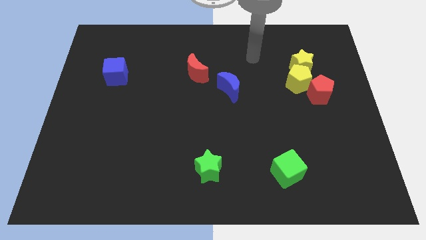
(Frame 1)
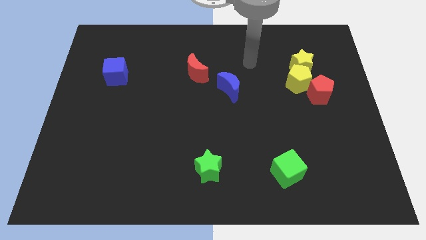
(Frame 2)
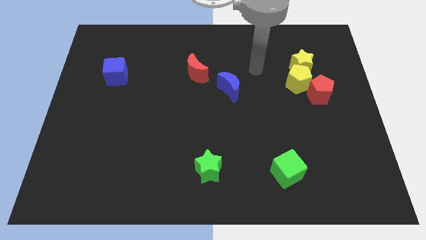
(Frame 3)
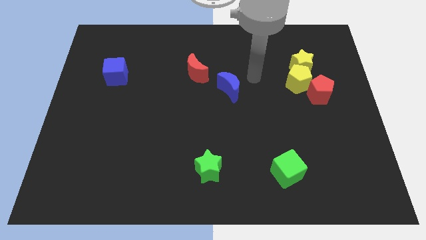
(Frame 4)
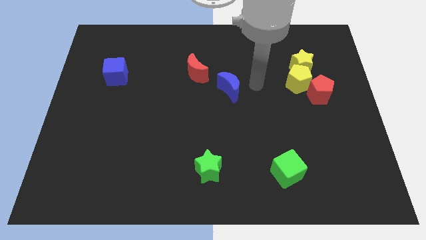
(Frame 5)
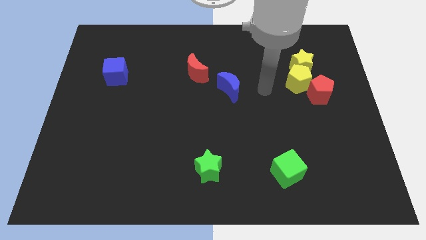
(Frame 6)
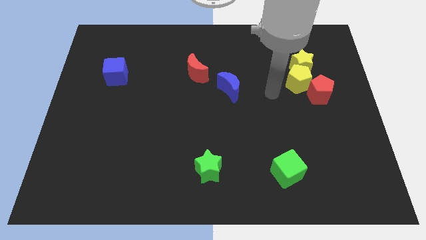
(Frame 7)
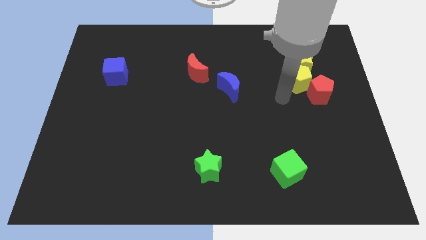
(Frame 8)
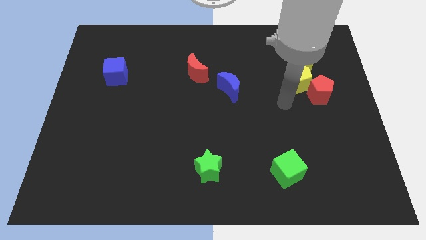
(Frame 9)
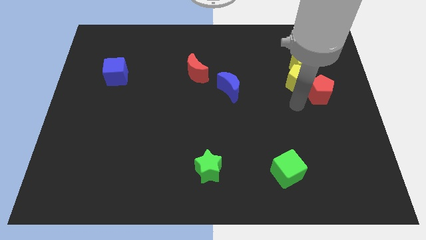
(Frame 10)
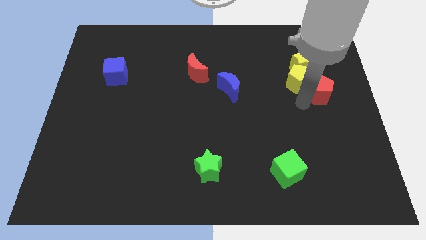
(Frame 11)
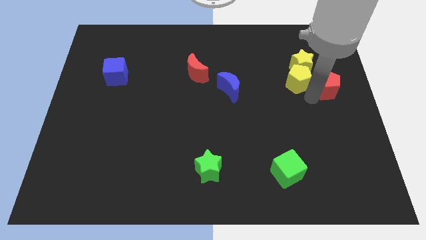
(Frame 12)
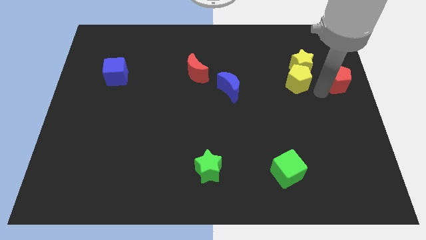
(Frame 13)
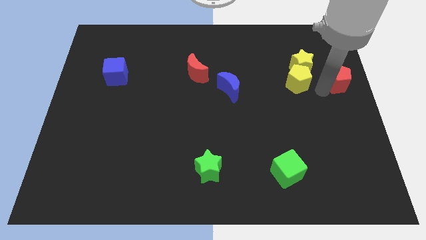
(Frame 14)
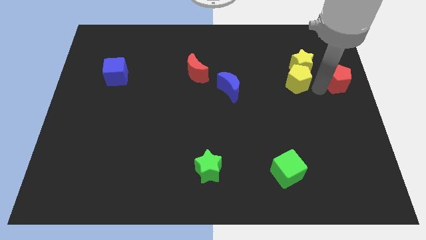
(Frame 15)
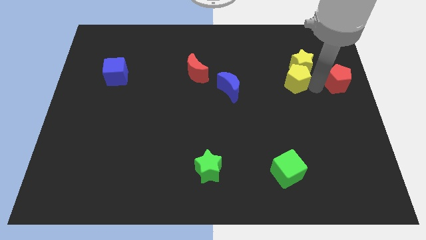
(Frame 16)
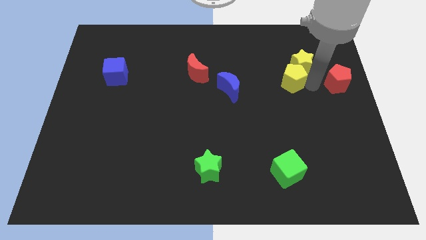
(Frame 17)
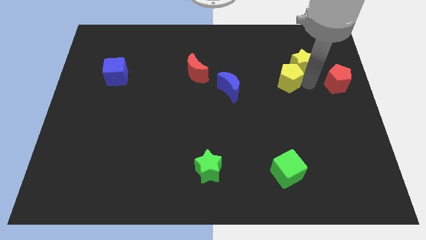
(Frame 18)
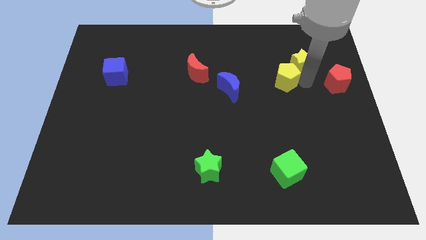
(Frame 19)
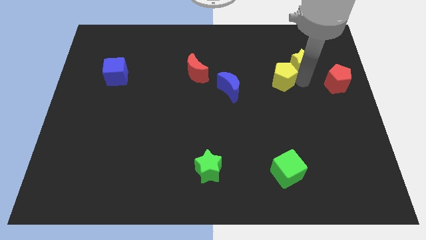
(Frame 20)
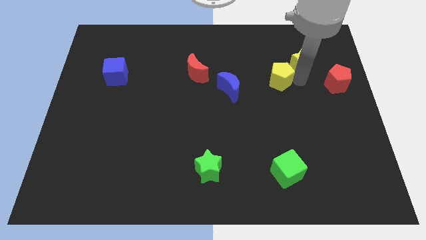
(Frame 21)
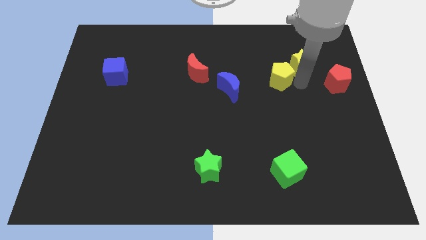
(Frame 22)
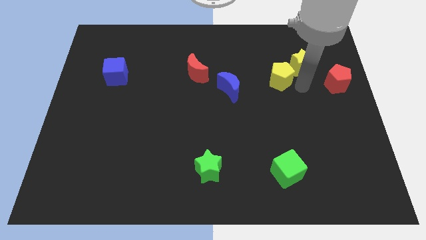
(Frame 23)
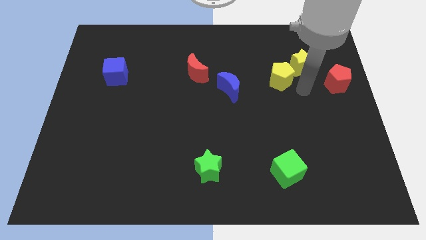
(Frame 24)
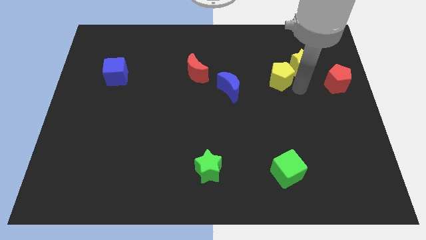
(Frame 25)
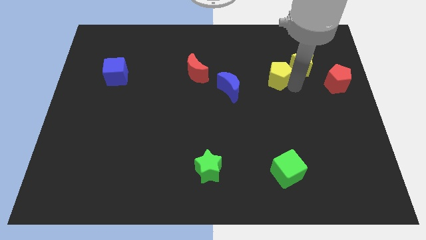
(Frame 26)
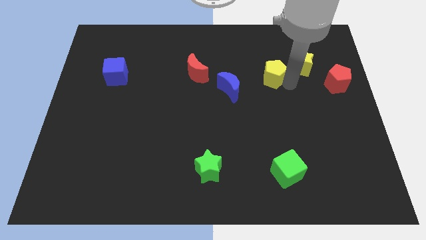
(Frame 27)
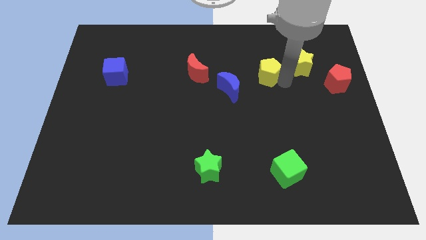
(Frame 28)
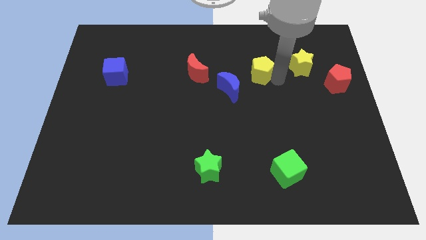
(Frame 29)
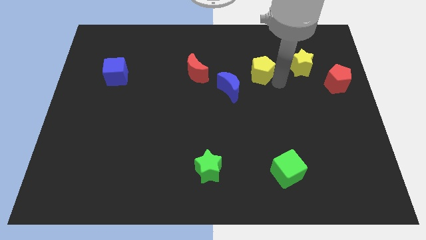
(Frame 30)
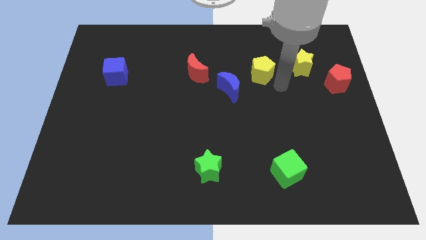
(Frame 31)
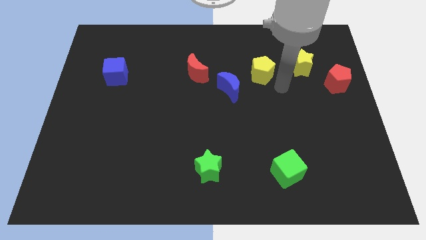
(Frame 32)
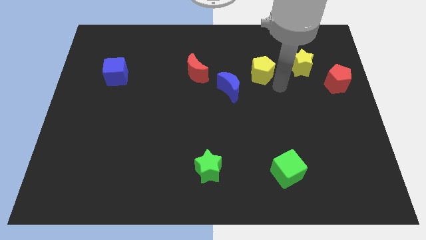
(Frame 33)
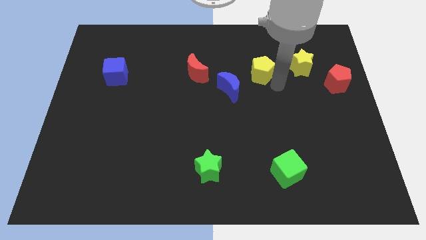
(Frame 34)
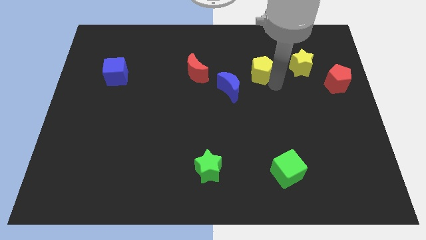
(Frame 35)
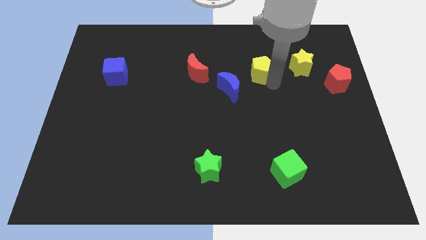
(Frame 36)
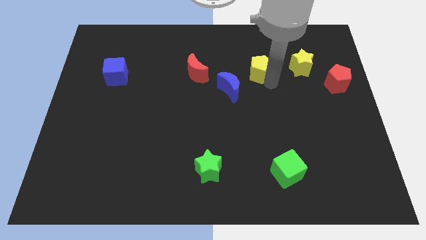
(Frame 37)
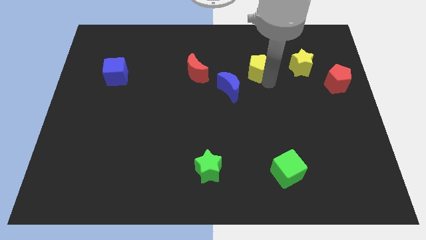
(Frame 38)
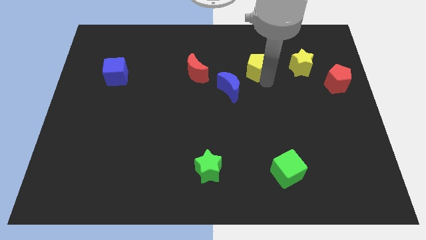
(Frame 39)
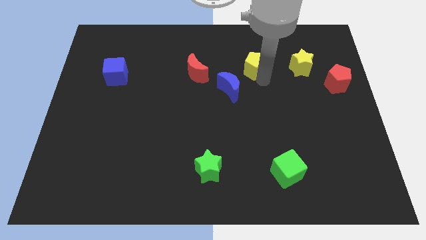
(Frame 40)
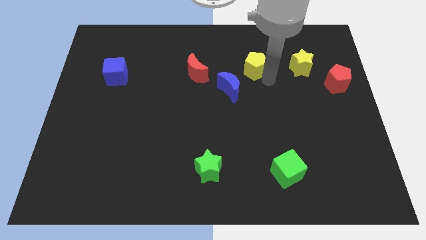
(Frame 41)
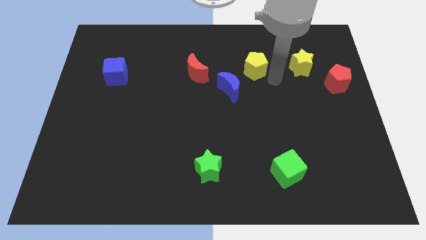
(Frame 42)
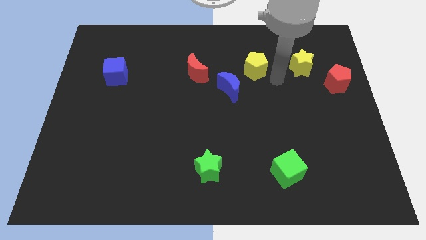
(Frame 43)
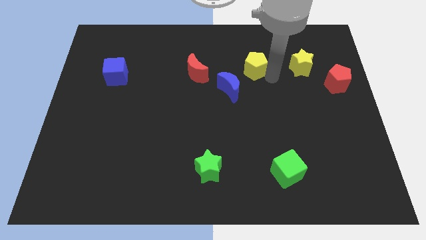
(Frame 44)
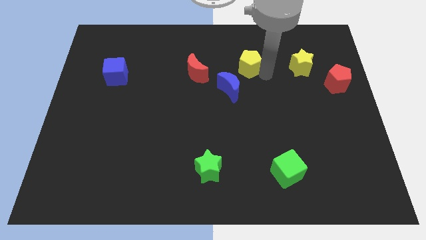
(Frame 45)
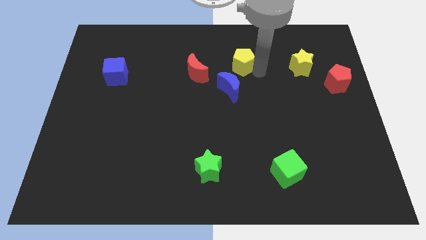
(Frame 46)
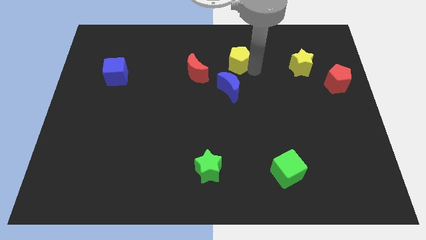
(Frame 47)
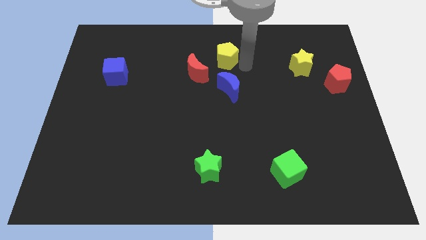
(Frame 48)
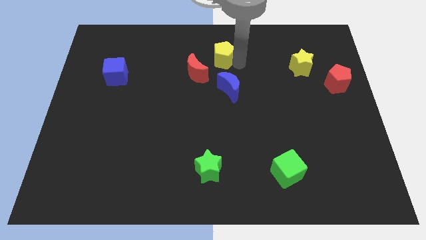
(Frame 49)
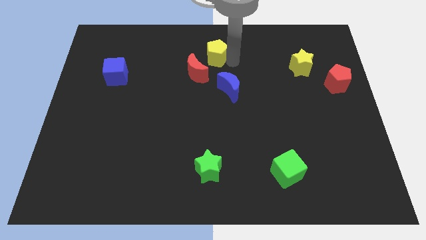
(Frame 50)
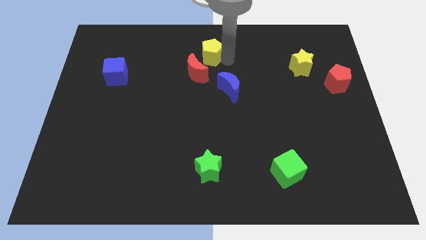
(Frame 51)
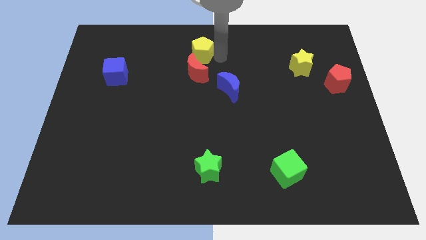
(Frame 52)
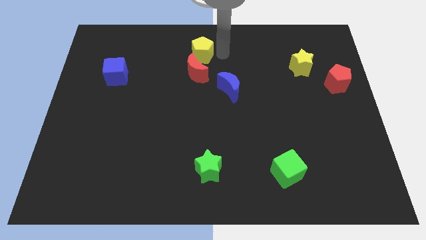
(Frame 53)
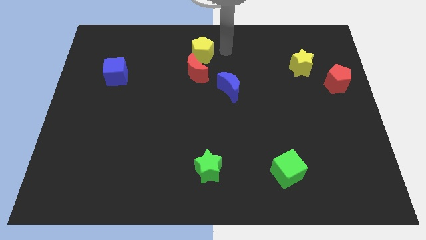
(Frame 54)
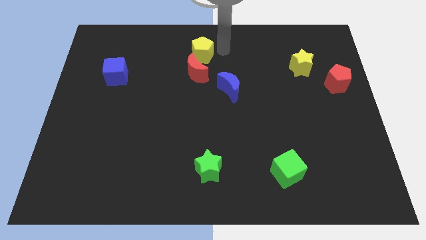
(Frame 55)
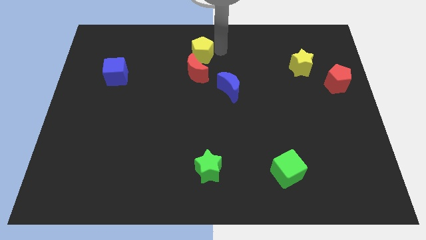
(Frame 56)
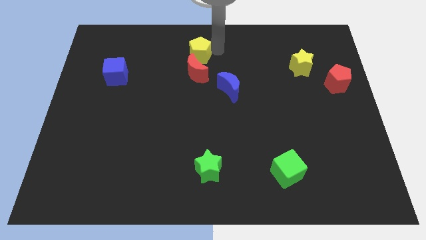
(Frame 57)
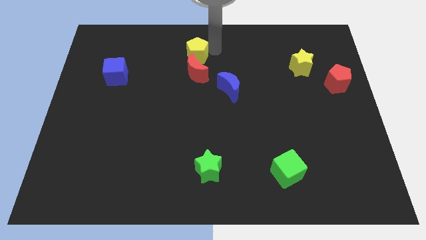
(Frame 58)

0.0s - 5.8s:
slide the yellow pentagon diagonally up and to the left of the red moon

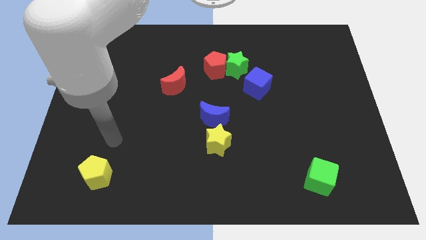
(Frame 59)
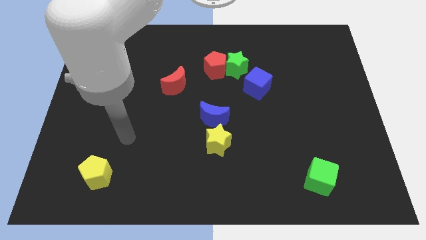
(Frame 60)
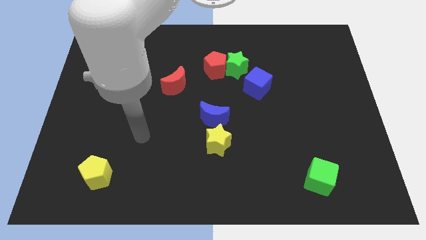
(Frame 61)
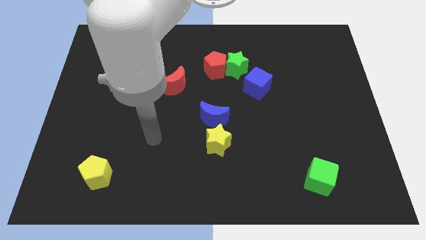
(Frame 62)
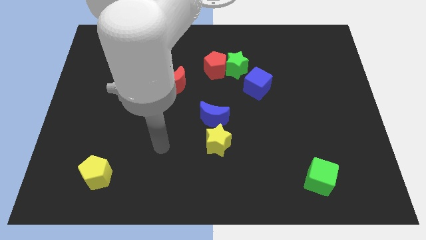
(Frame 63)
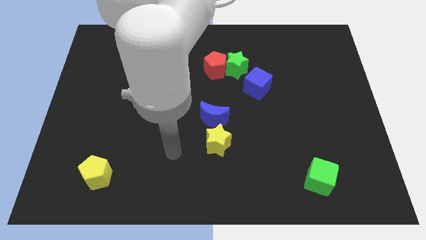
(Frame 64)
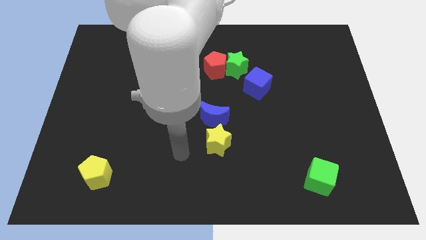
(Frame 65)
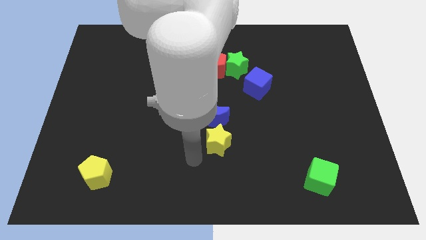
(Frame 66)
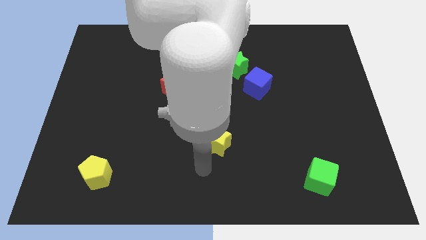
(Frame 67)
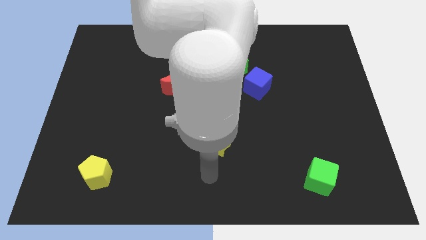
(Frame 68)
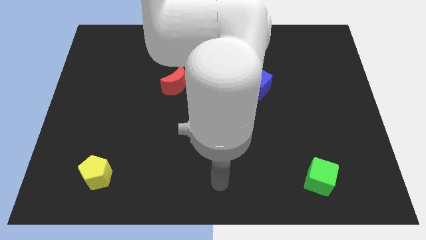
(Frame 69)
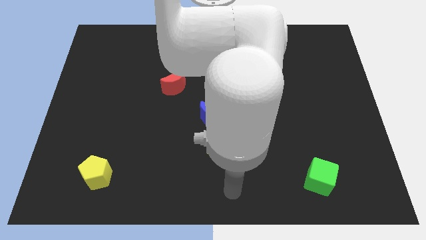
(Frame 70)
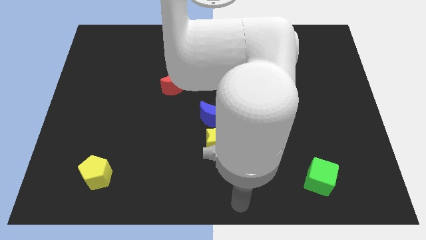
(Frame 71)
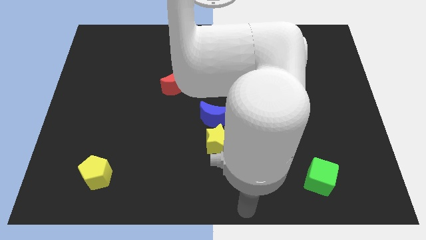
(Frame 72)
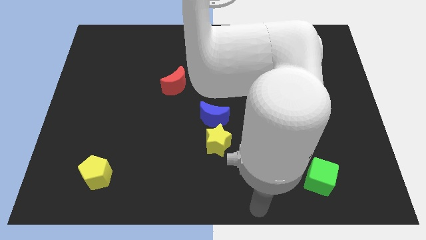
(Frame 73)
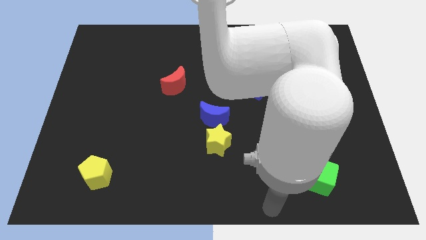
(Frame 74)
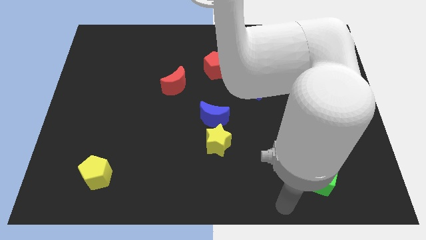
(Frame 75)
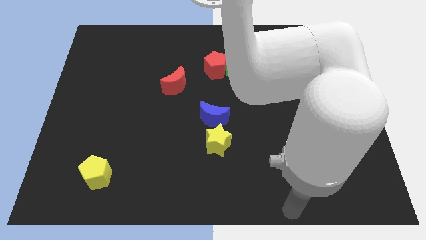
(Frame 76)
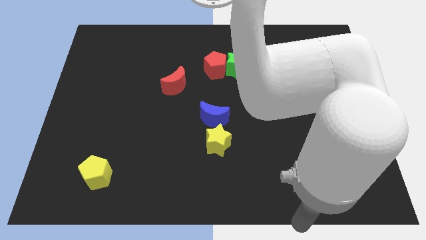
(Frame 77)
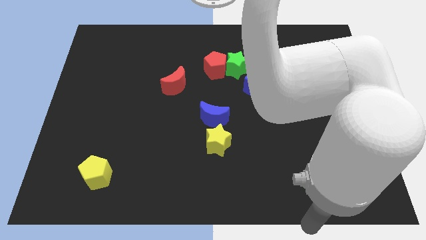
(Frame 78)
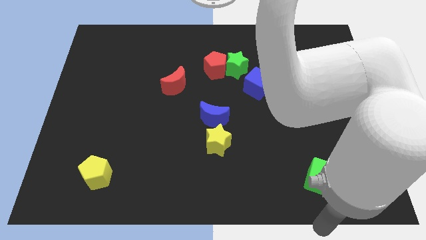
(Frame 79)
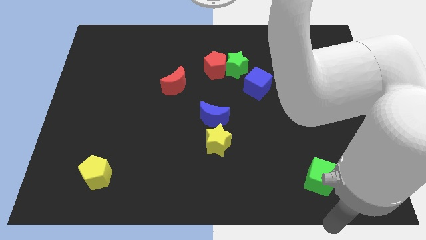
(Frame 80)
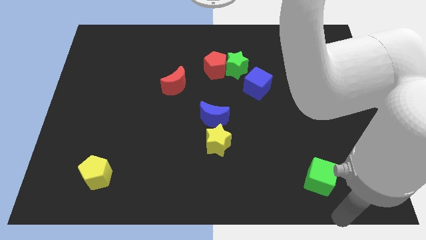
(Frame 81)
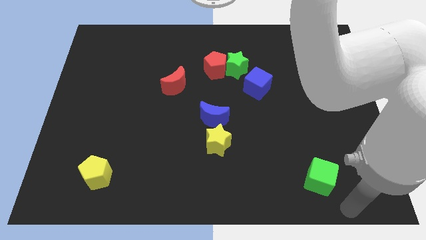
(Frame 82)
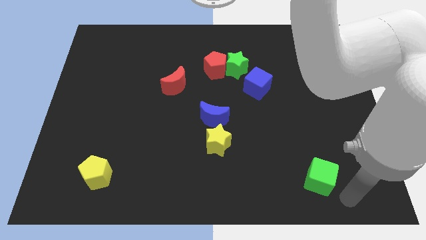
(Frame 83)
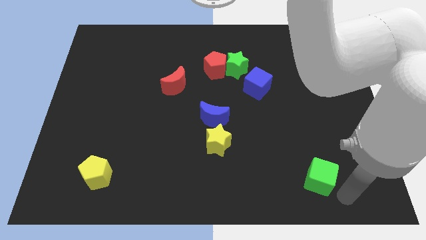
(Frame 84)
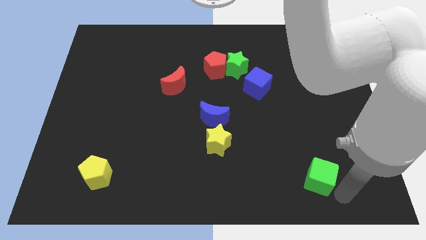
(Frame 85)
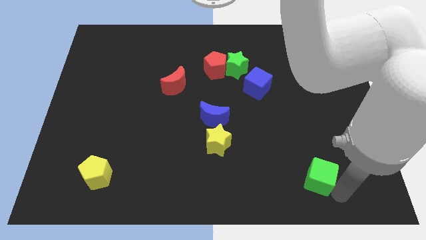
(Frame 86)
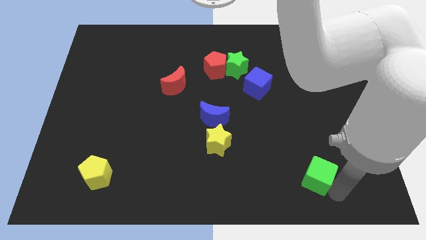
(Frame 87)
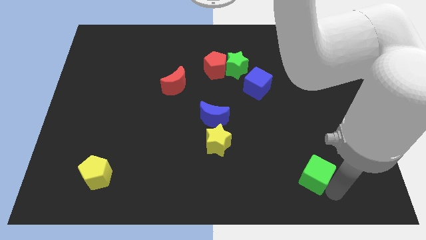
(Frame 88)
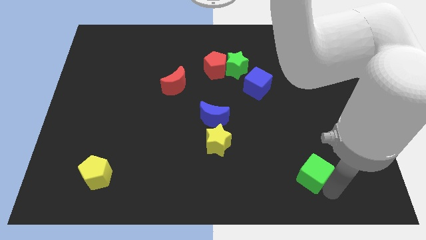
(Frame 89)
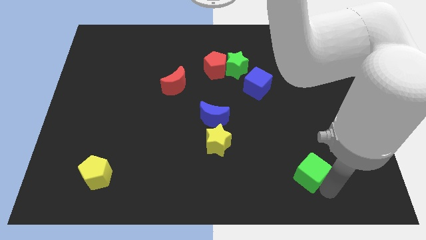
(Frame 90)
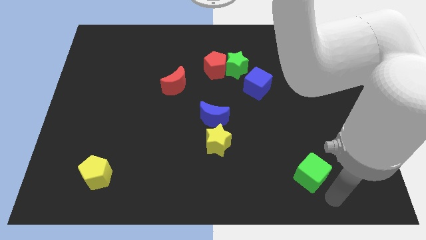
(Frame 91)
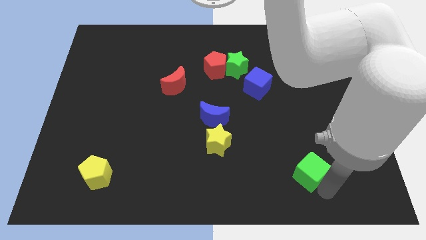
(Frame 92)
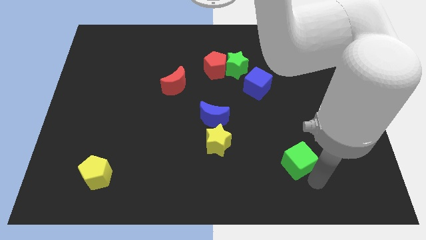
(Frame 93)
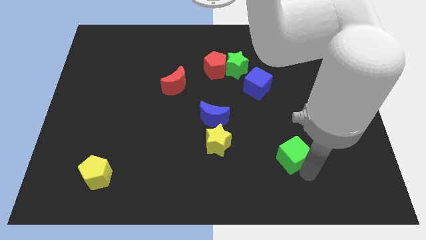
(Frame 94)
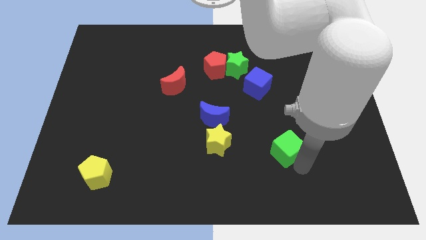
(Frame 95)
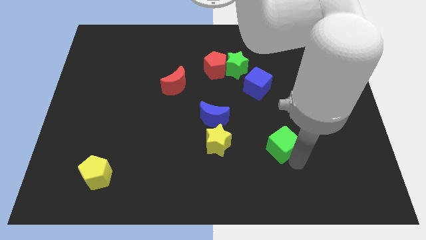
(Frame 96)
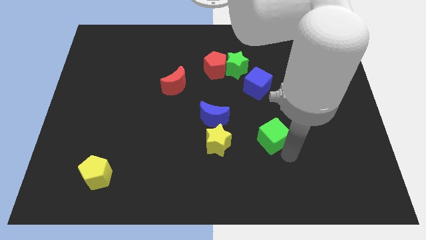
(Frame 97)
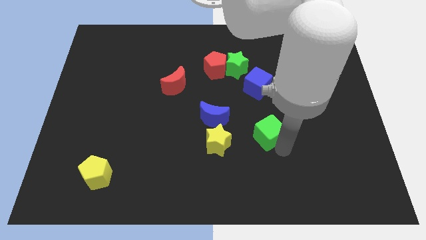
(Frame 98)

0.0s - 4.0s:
put the green cube right of the blue moon
